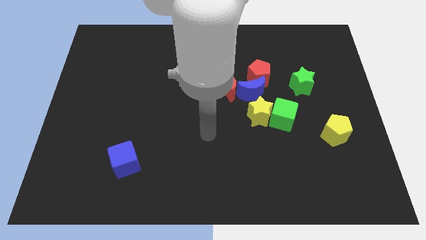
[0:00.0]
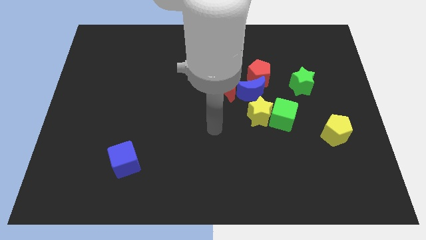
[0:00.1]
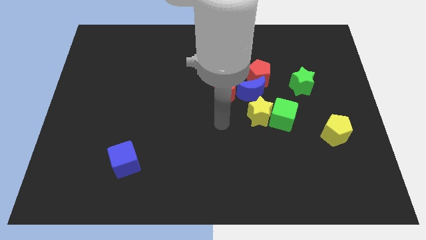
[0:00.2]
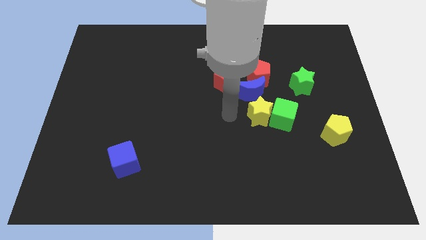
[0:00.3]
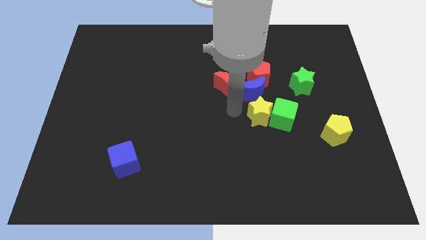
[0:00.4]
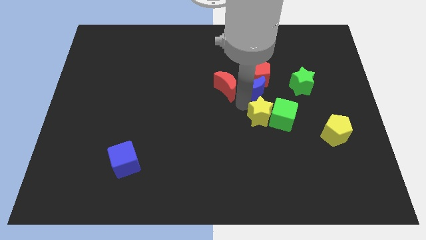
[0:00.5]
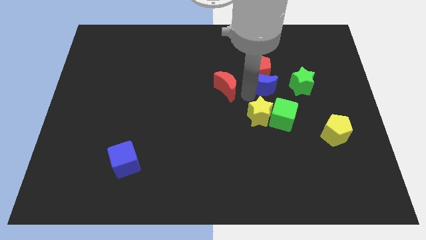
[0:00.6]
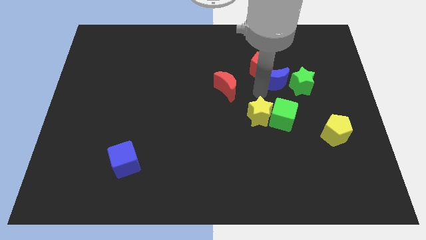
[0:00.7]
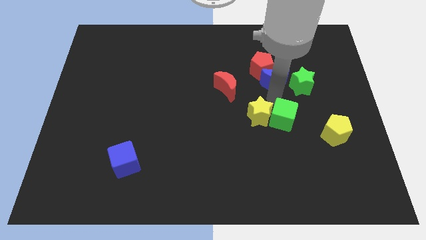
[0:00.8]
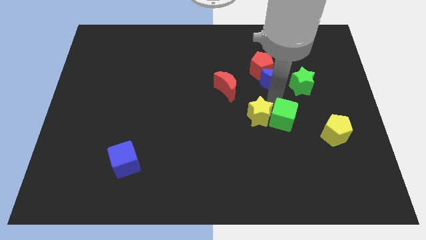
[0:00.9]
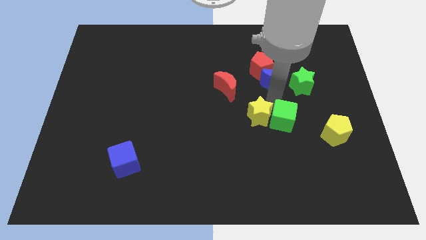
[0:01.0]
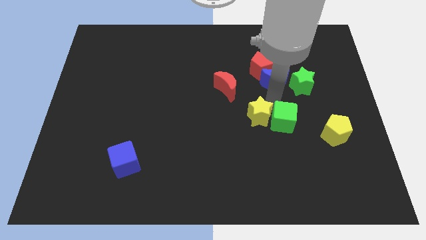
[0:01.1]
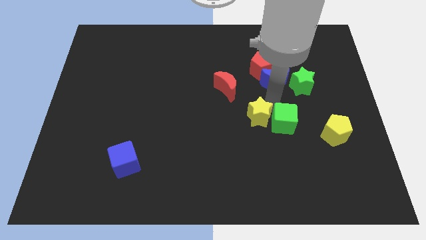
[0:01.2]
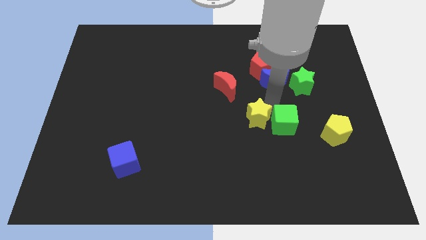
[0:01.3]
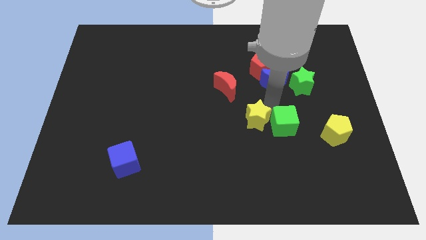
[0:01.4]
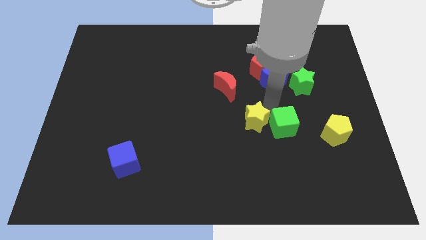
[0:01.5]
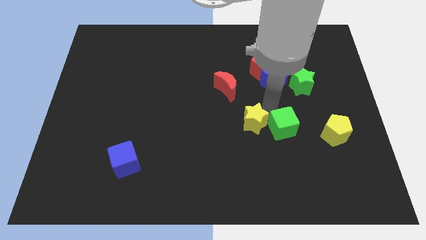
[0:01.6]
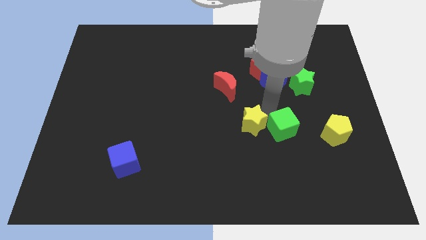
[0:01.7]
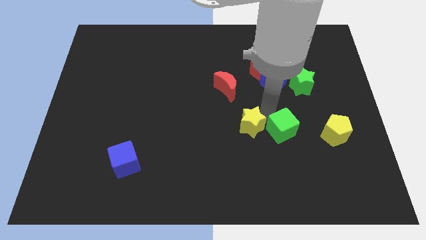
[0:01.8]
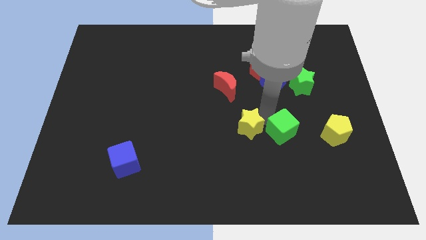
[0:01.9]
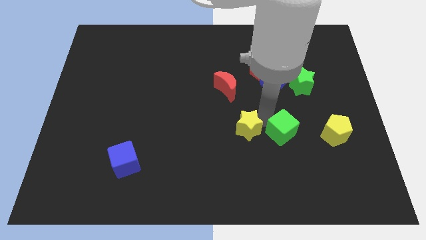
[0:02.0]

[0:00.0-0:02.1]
pull the yellow star apart from the green cube and blue moon

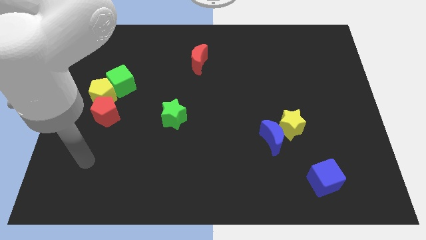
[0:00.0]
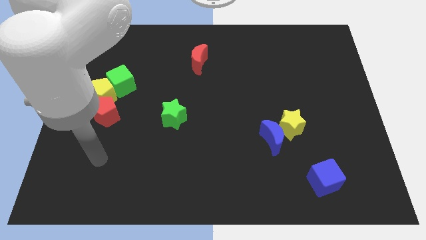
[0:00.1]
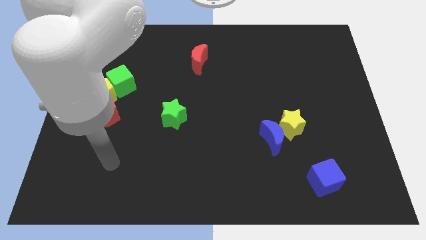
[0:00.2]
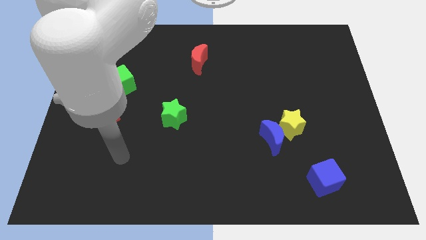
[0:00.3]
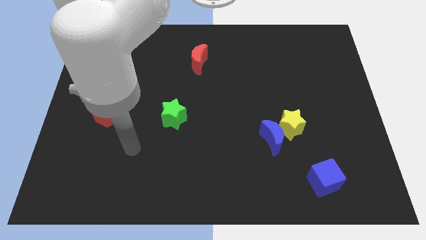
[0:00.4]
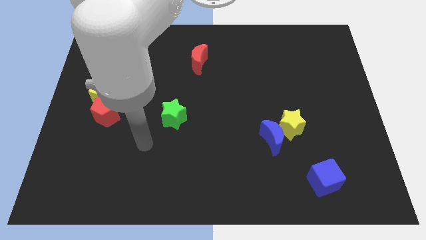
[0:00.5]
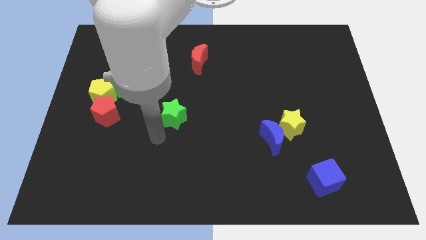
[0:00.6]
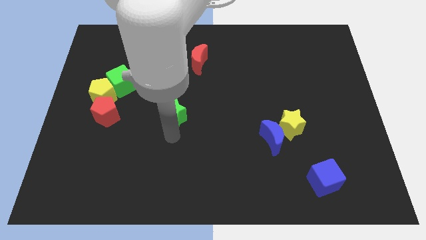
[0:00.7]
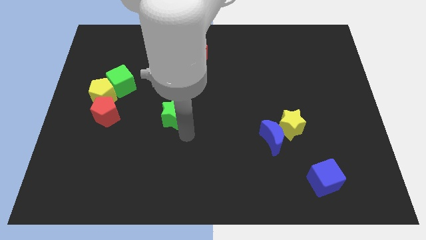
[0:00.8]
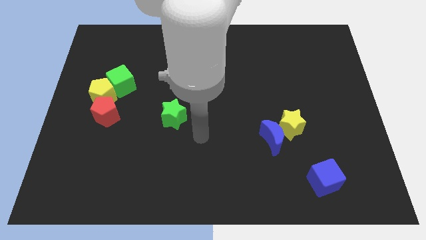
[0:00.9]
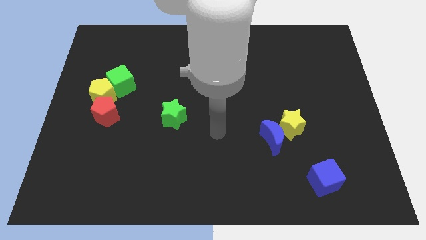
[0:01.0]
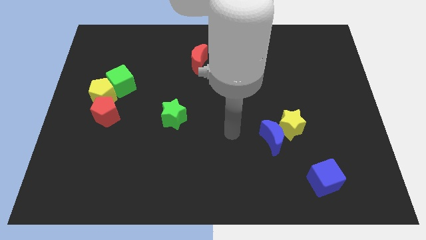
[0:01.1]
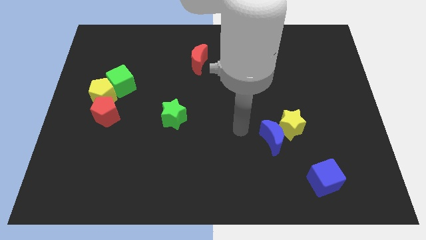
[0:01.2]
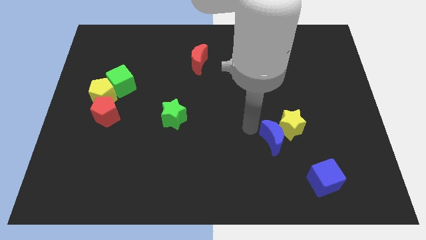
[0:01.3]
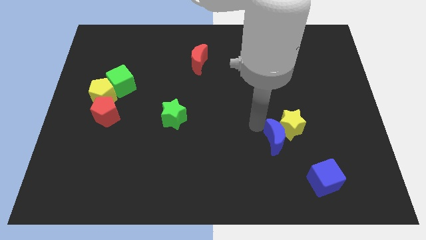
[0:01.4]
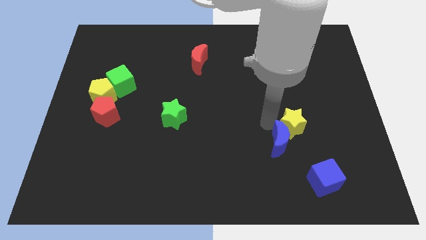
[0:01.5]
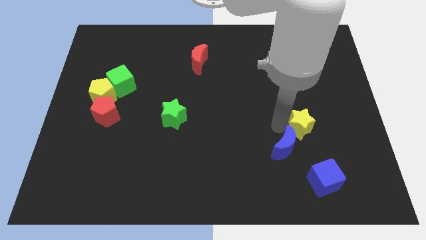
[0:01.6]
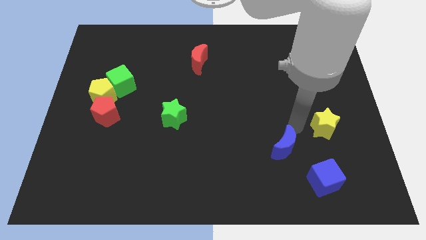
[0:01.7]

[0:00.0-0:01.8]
move the blue moon away from the yellow star

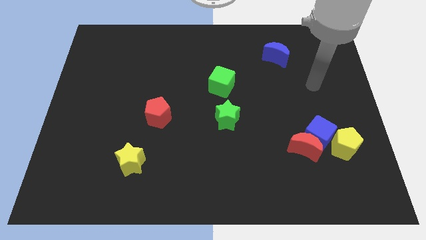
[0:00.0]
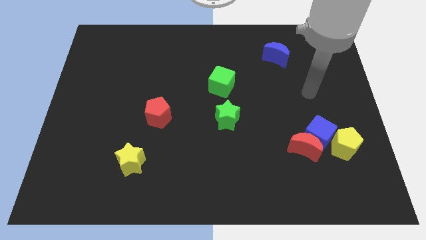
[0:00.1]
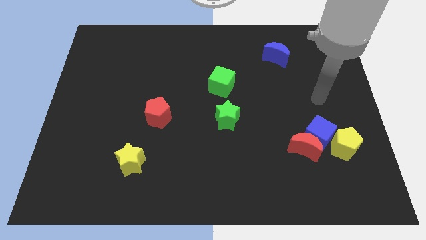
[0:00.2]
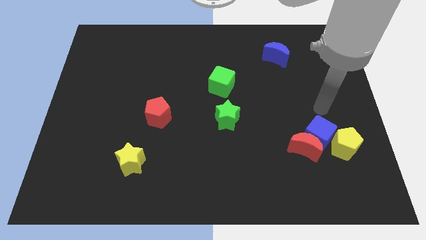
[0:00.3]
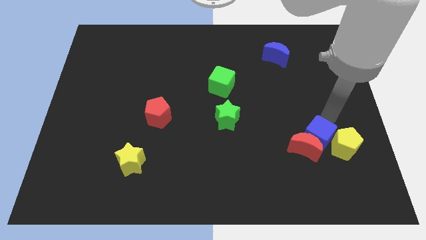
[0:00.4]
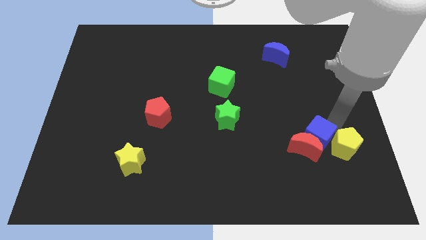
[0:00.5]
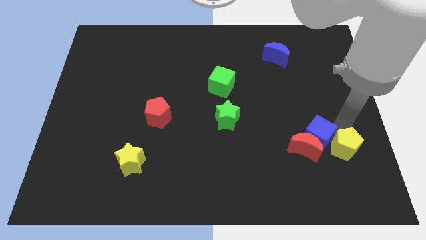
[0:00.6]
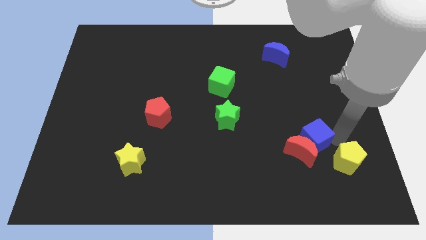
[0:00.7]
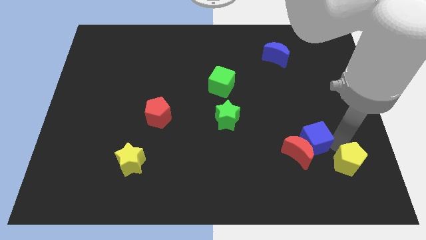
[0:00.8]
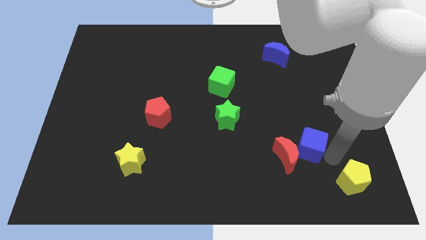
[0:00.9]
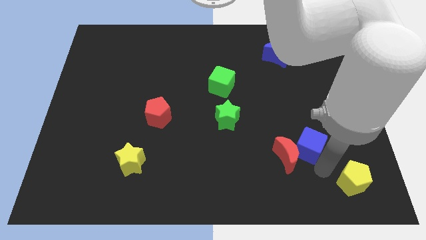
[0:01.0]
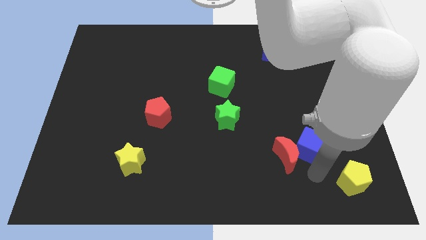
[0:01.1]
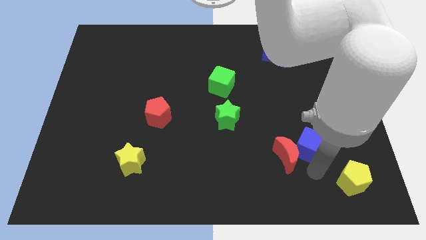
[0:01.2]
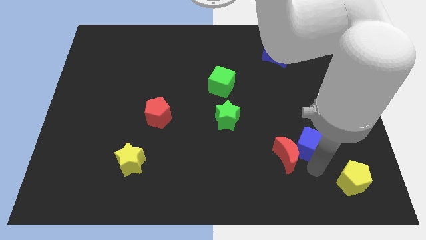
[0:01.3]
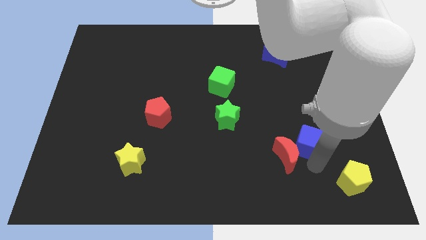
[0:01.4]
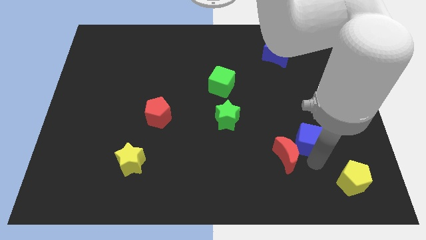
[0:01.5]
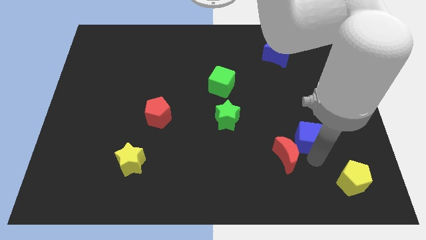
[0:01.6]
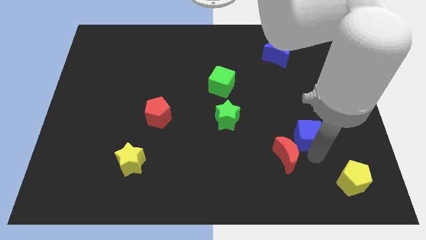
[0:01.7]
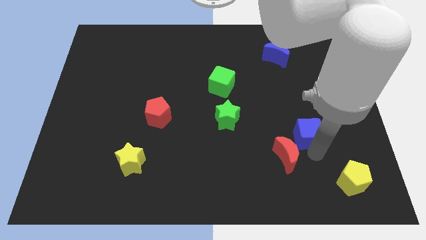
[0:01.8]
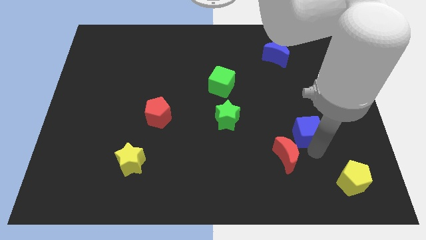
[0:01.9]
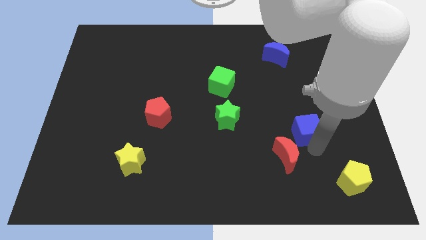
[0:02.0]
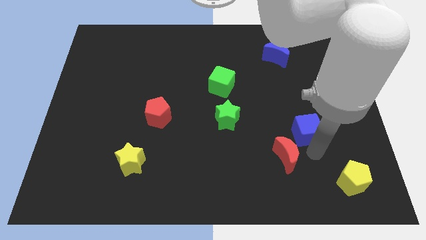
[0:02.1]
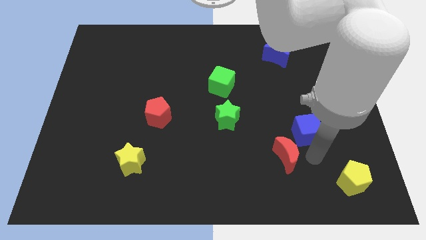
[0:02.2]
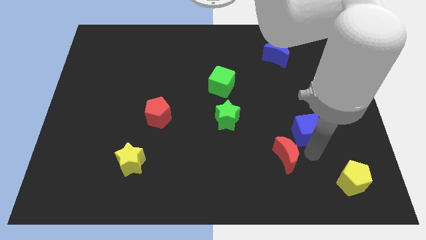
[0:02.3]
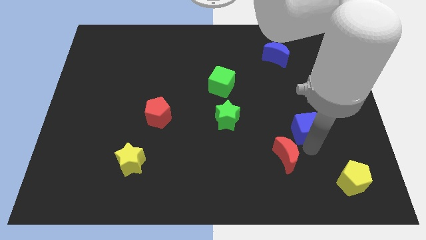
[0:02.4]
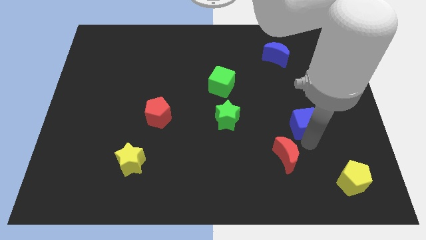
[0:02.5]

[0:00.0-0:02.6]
separate the blue cube from the red moon and yellow pentagon

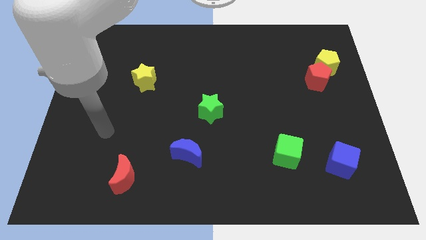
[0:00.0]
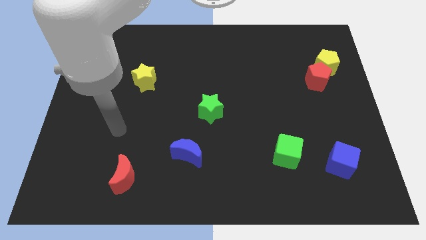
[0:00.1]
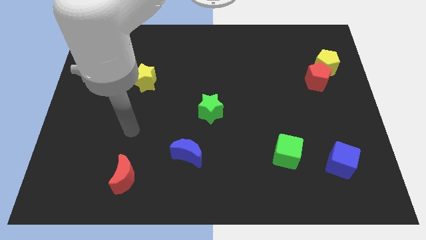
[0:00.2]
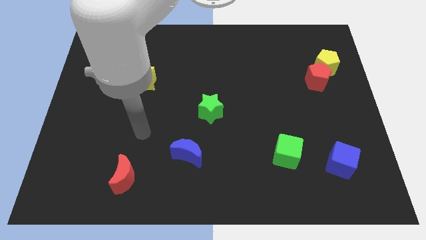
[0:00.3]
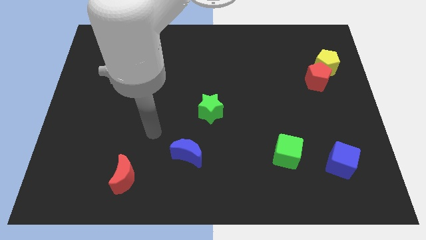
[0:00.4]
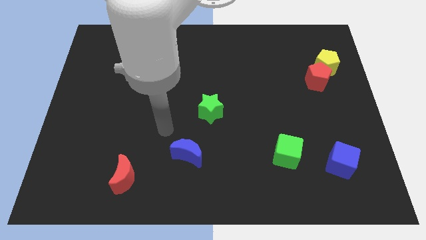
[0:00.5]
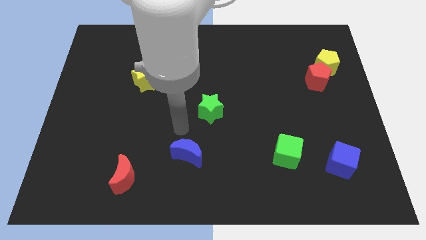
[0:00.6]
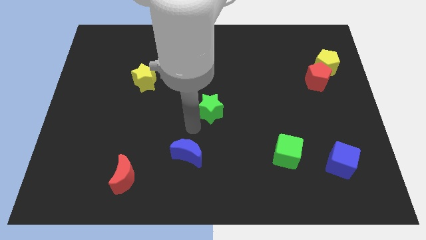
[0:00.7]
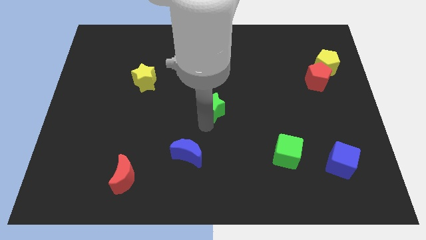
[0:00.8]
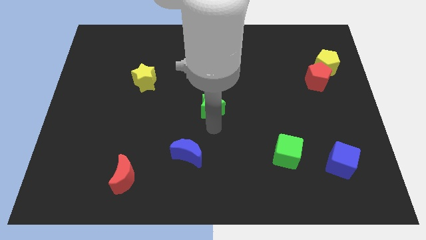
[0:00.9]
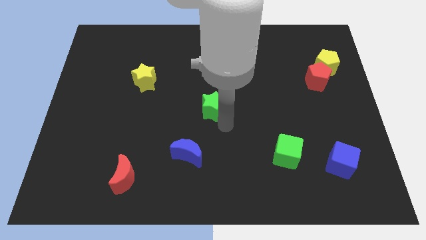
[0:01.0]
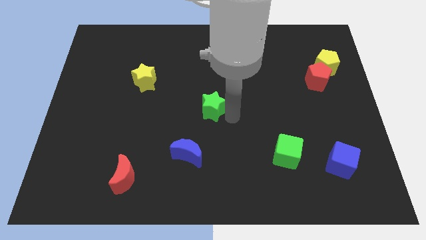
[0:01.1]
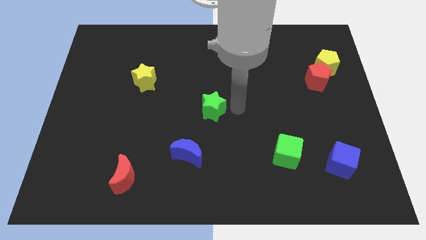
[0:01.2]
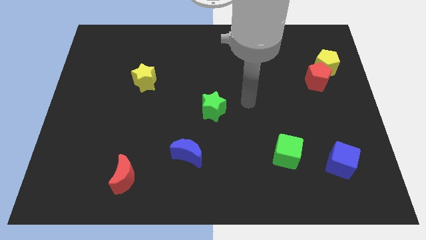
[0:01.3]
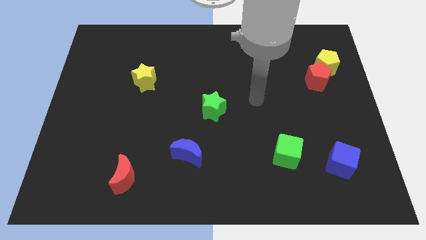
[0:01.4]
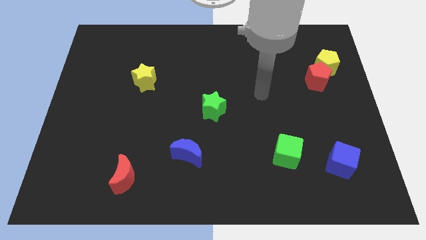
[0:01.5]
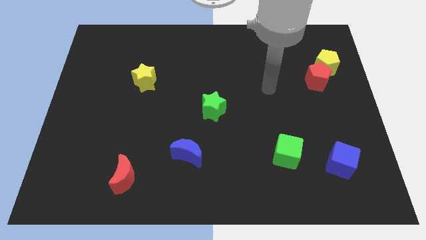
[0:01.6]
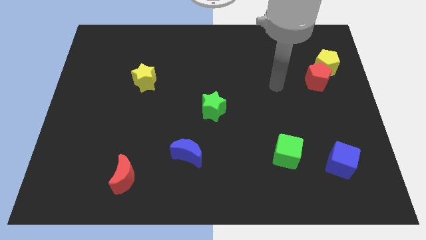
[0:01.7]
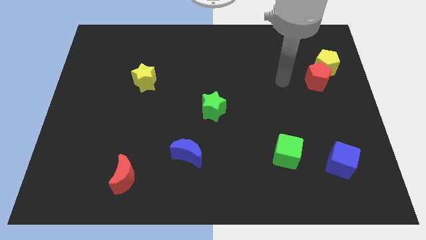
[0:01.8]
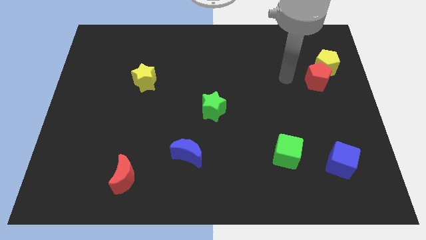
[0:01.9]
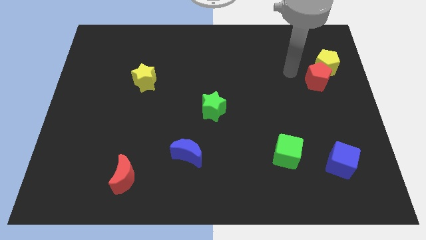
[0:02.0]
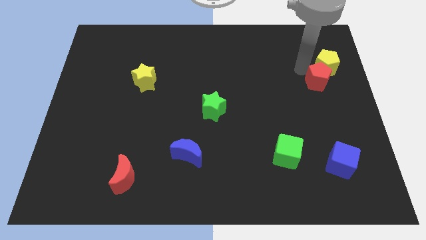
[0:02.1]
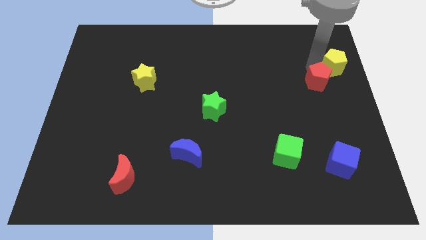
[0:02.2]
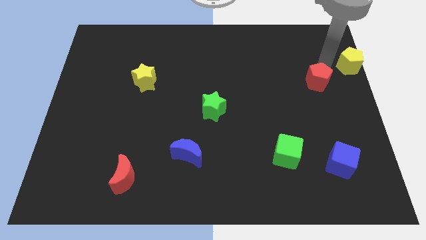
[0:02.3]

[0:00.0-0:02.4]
separate the red pentagon from the yellow pentagon

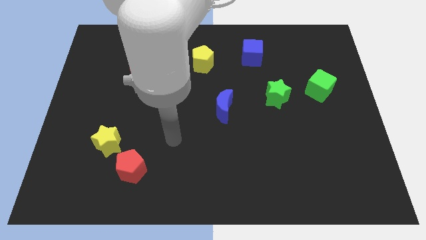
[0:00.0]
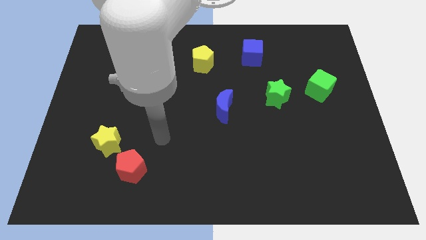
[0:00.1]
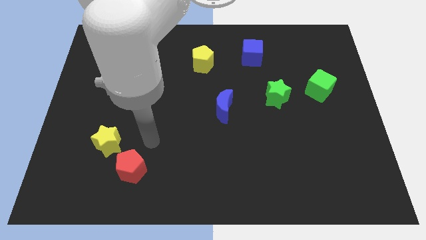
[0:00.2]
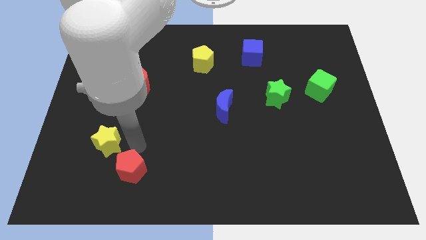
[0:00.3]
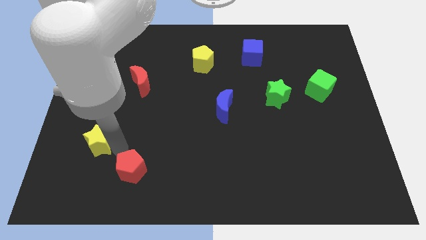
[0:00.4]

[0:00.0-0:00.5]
separate the red pentagon from the yellow star
